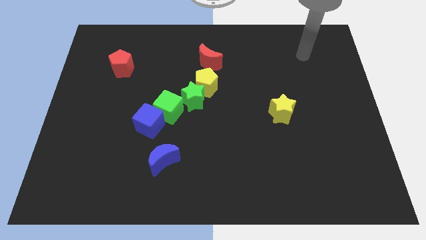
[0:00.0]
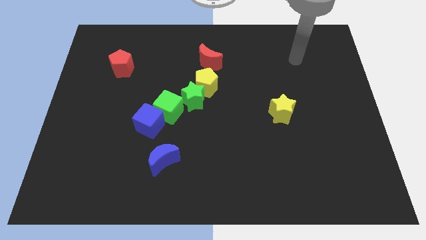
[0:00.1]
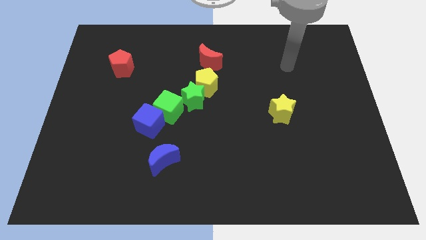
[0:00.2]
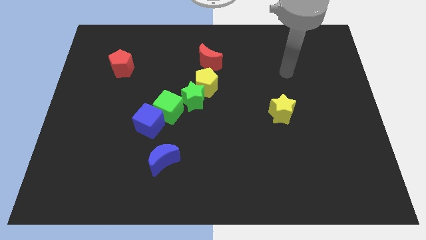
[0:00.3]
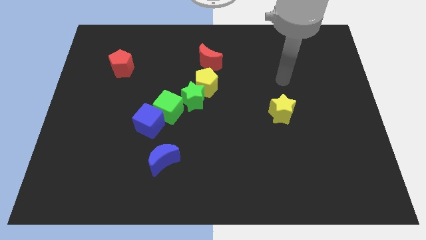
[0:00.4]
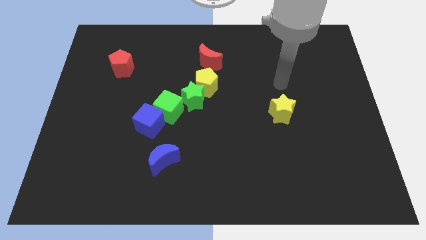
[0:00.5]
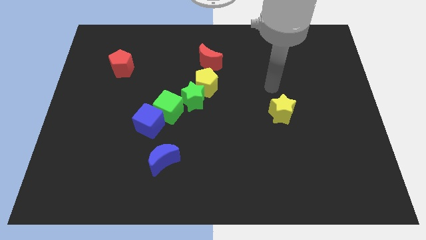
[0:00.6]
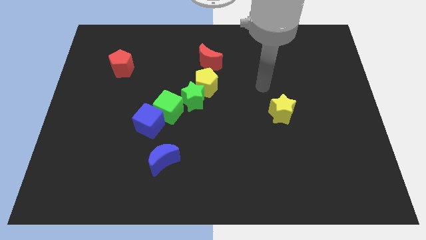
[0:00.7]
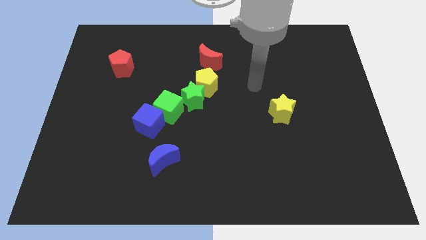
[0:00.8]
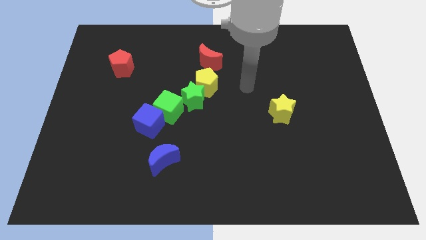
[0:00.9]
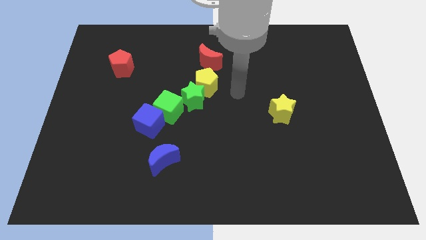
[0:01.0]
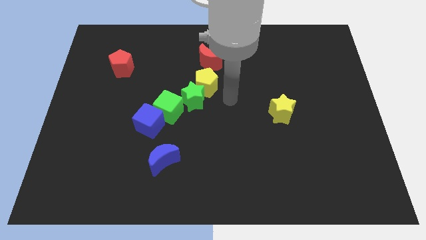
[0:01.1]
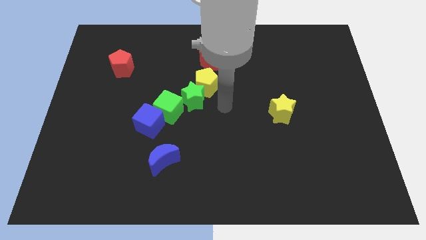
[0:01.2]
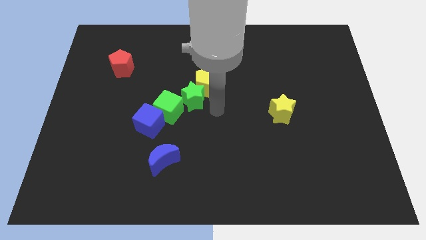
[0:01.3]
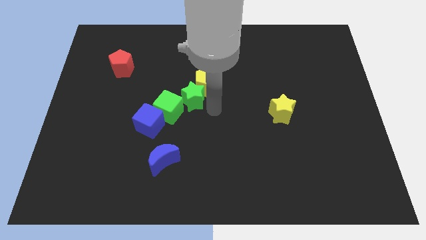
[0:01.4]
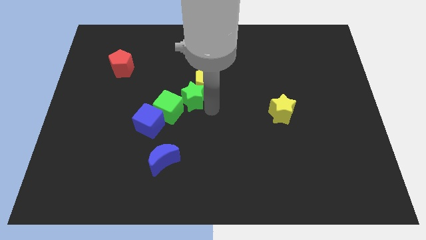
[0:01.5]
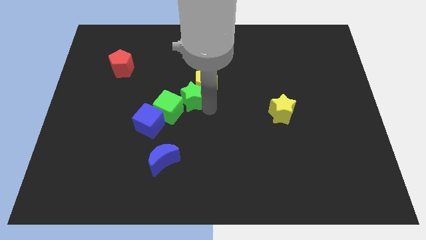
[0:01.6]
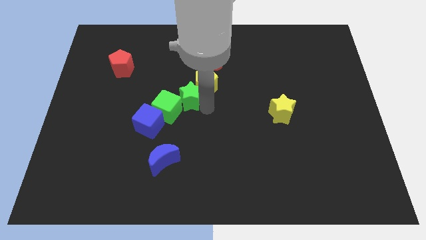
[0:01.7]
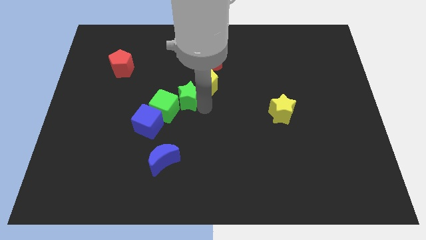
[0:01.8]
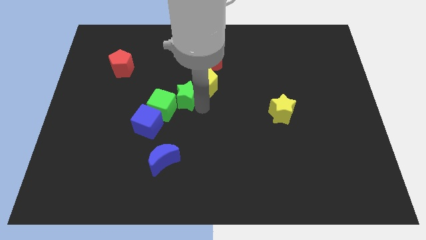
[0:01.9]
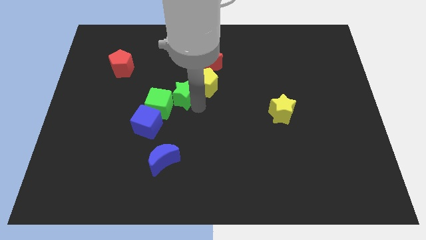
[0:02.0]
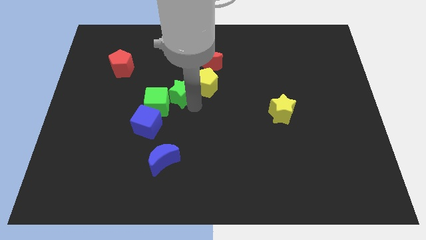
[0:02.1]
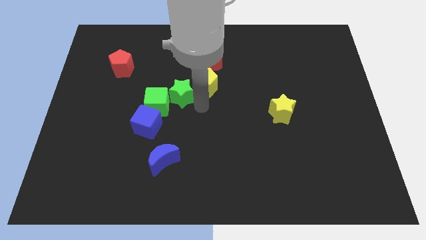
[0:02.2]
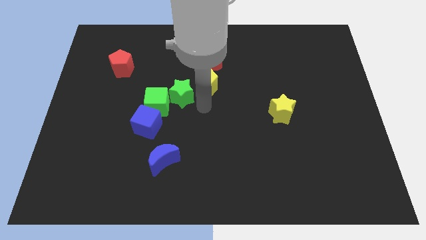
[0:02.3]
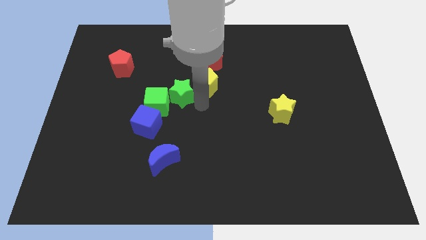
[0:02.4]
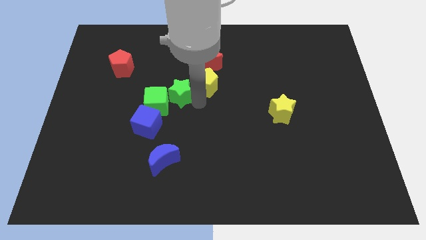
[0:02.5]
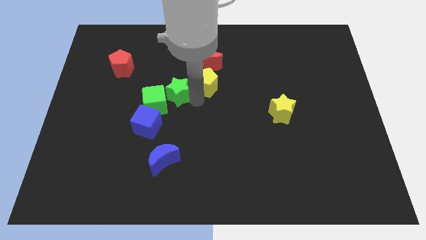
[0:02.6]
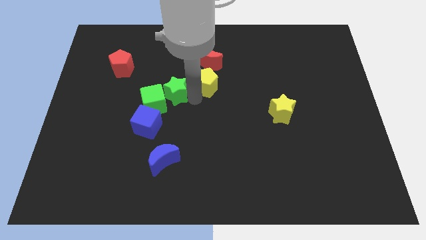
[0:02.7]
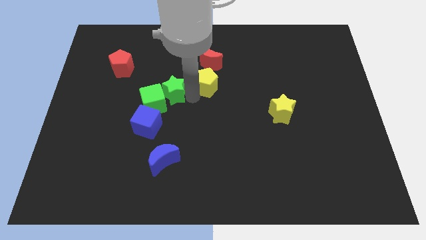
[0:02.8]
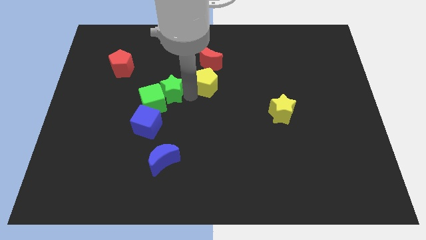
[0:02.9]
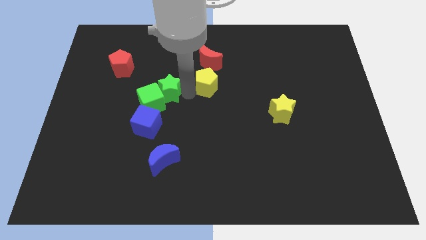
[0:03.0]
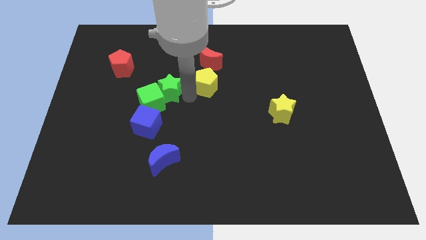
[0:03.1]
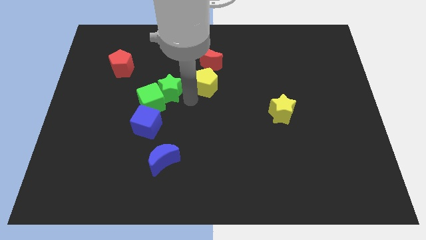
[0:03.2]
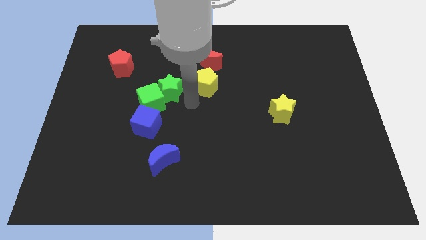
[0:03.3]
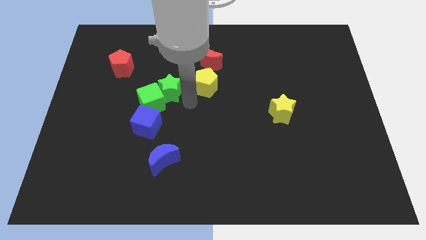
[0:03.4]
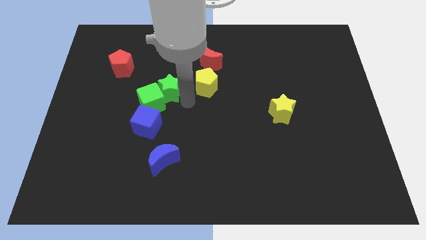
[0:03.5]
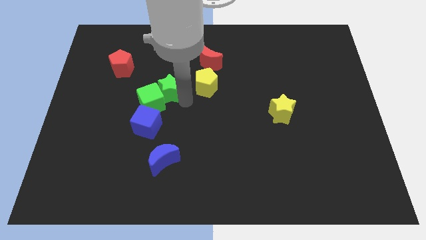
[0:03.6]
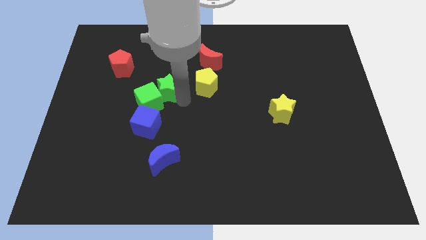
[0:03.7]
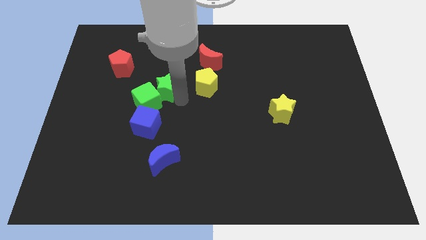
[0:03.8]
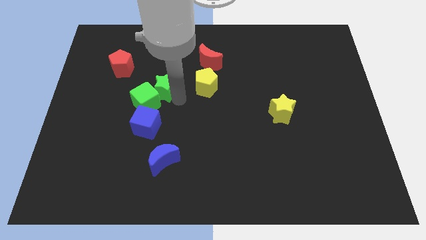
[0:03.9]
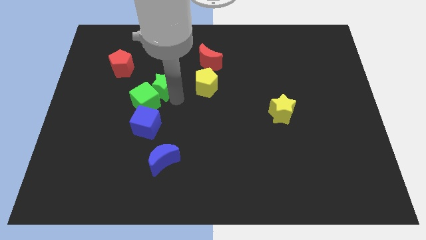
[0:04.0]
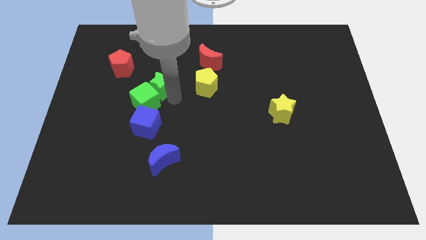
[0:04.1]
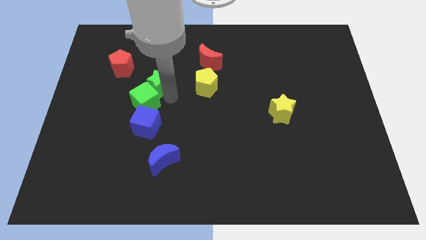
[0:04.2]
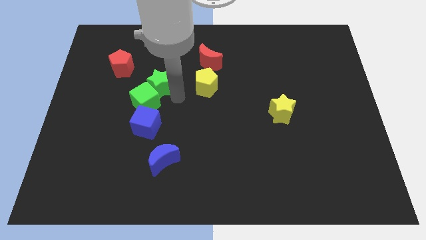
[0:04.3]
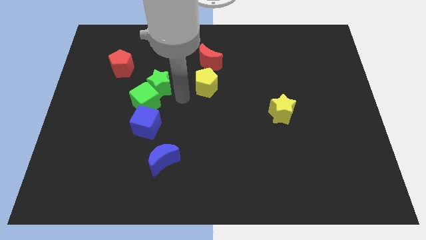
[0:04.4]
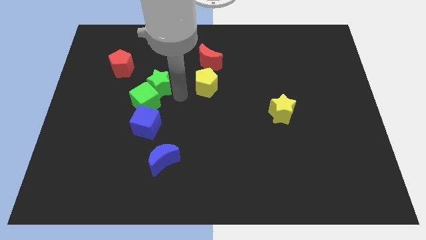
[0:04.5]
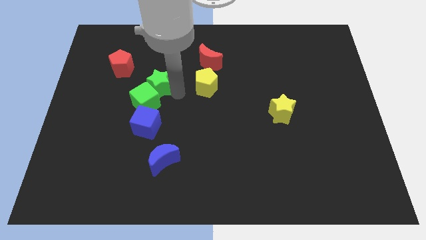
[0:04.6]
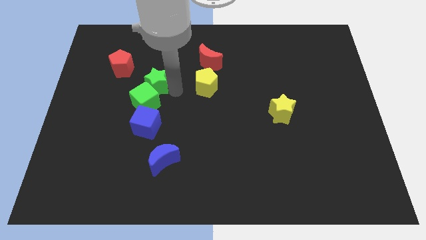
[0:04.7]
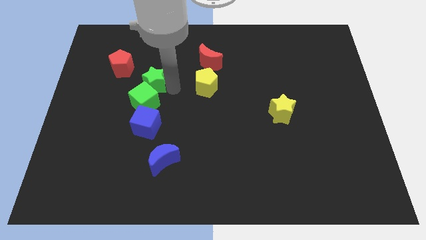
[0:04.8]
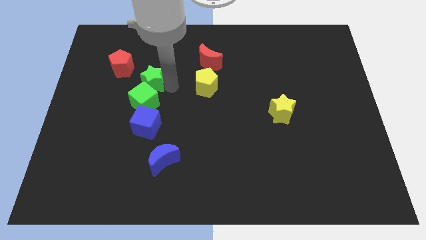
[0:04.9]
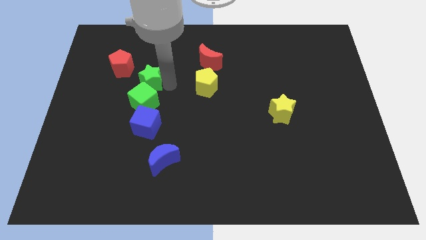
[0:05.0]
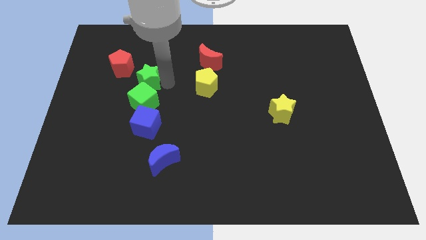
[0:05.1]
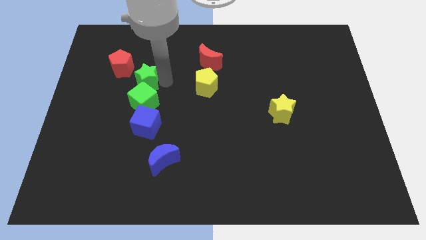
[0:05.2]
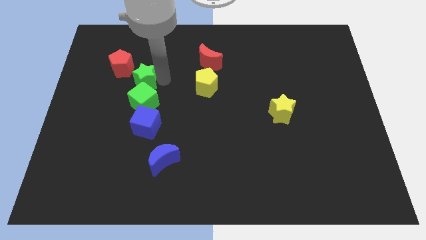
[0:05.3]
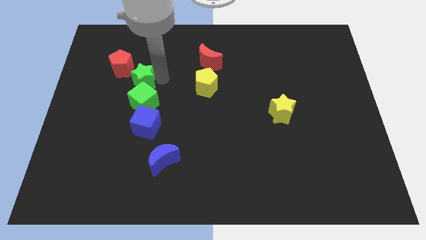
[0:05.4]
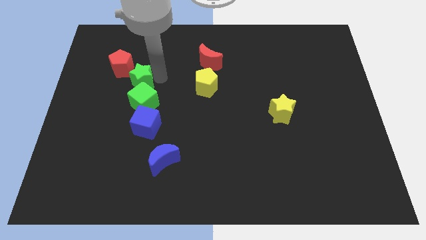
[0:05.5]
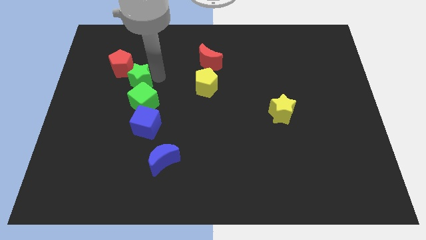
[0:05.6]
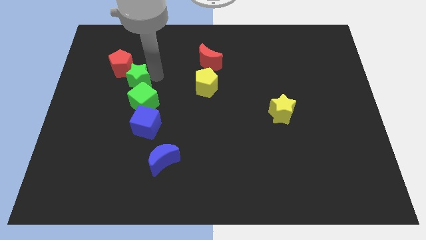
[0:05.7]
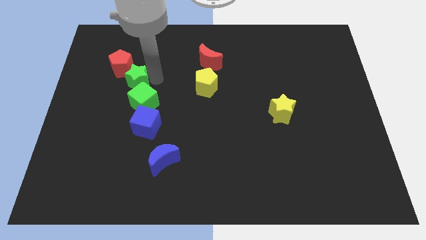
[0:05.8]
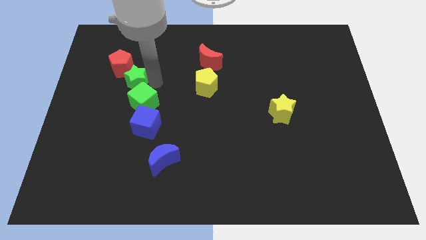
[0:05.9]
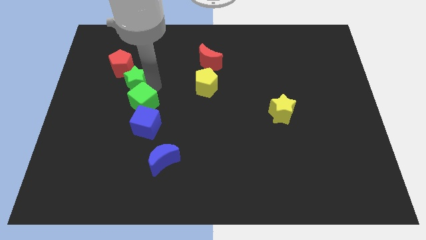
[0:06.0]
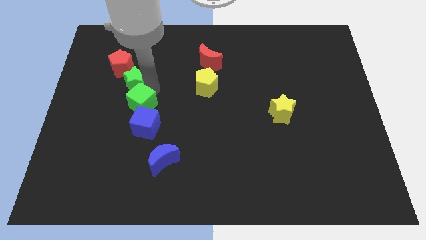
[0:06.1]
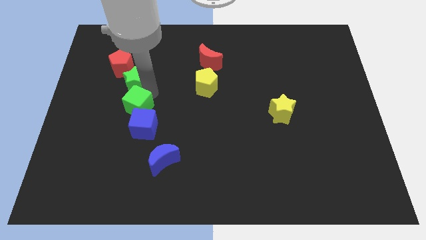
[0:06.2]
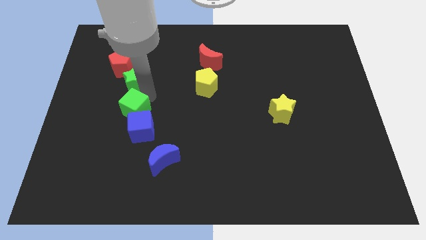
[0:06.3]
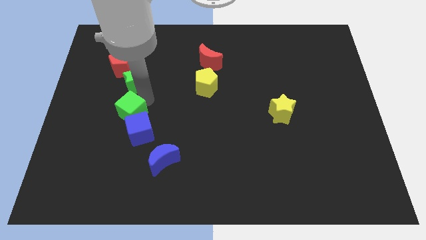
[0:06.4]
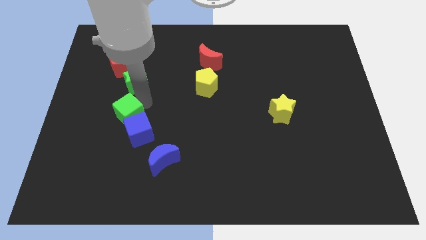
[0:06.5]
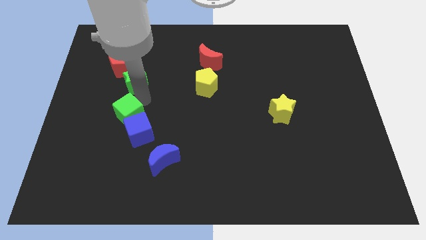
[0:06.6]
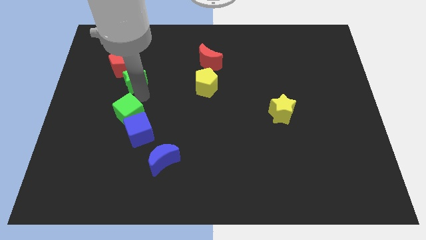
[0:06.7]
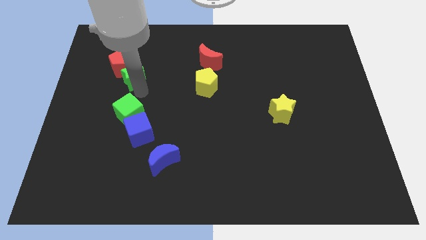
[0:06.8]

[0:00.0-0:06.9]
push the green star to the red pentagon
